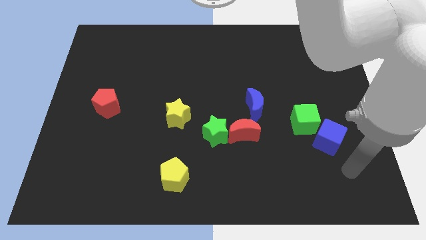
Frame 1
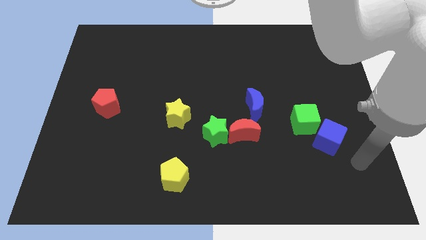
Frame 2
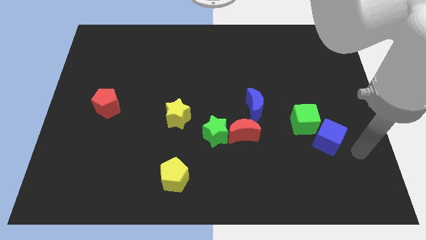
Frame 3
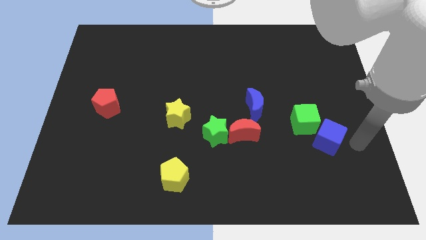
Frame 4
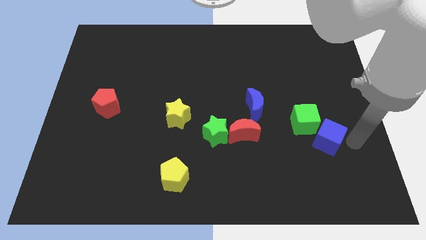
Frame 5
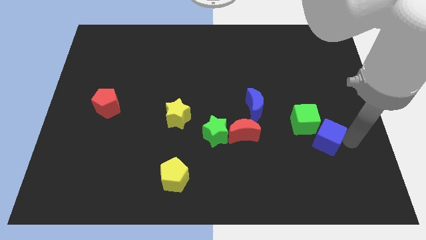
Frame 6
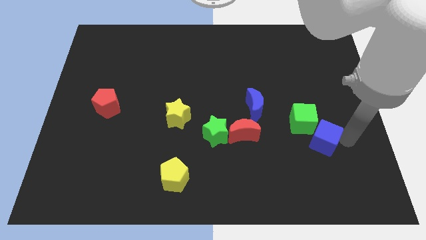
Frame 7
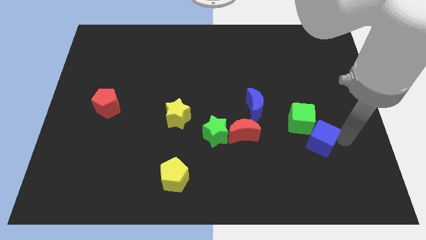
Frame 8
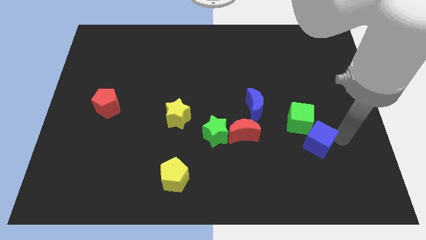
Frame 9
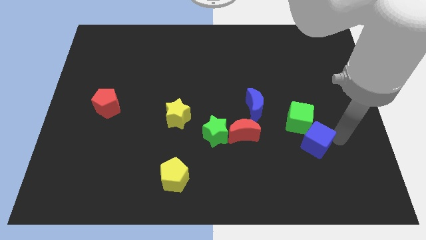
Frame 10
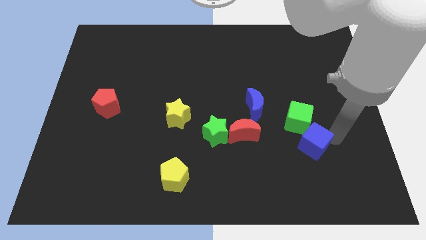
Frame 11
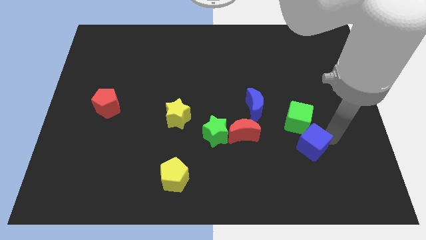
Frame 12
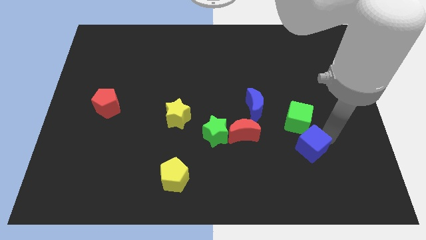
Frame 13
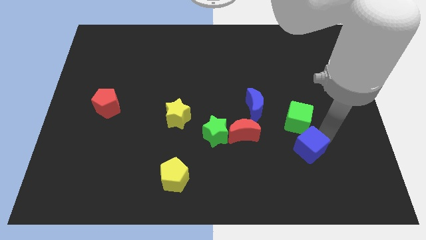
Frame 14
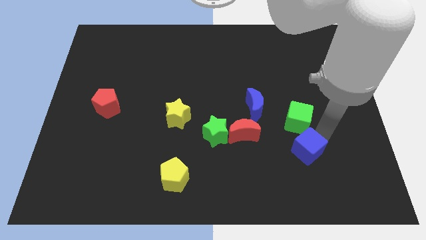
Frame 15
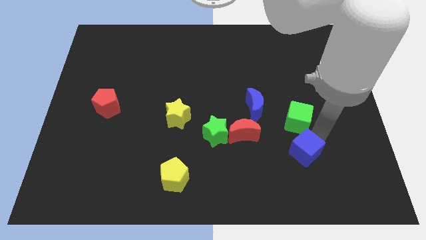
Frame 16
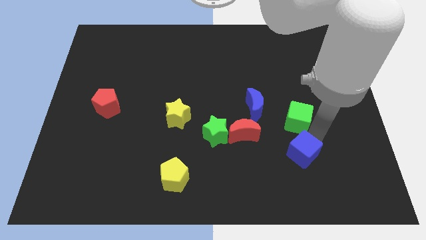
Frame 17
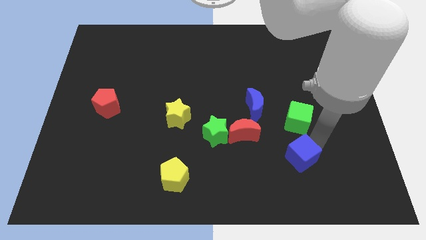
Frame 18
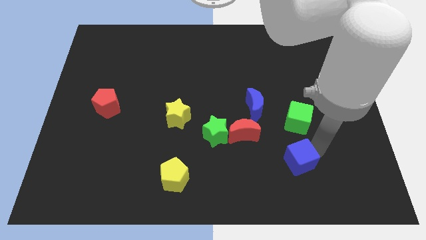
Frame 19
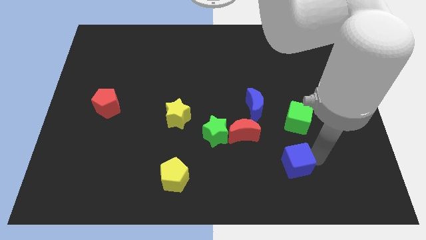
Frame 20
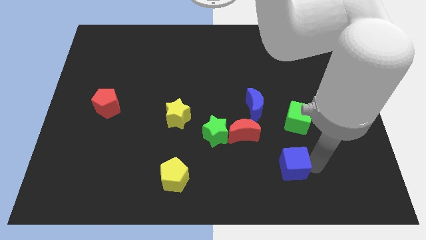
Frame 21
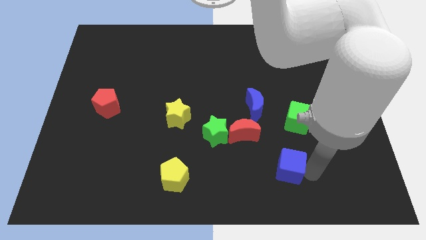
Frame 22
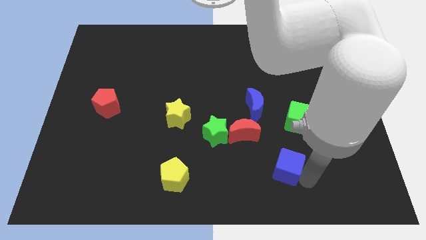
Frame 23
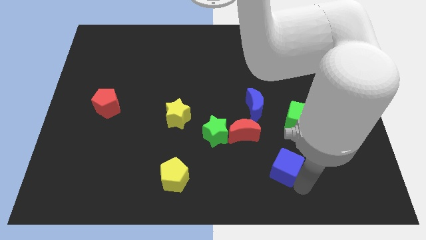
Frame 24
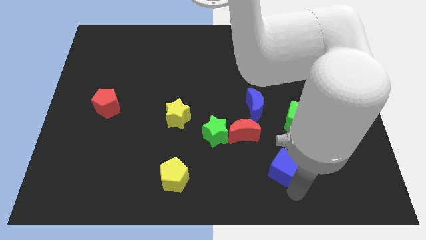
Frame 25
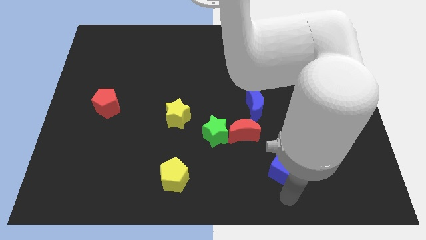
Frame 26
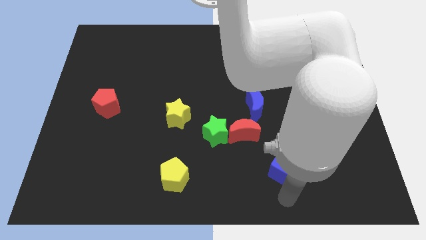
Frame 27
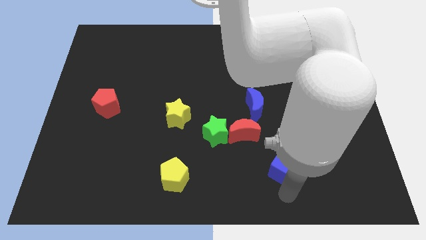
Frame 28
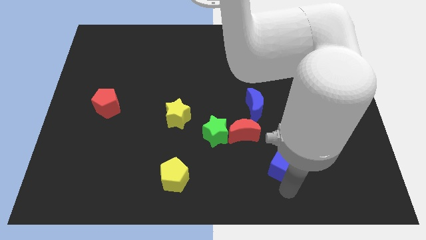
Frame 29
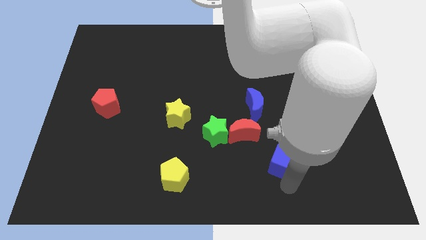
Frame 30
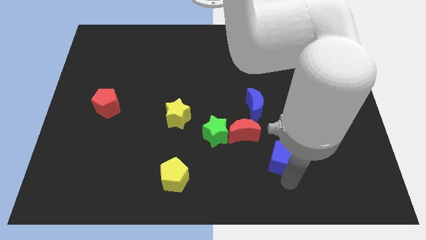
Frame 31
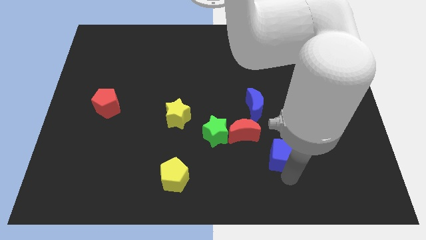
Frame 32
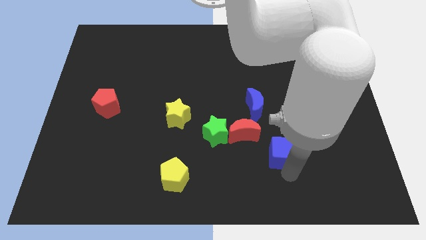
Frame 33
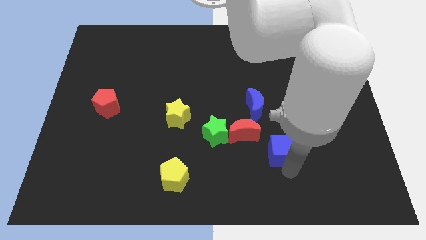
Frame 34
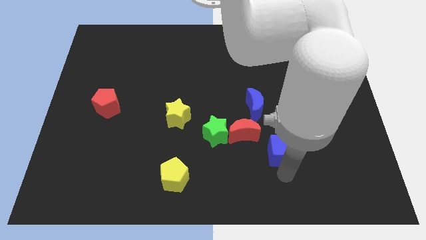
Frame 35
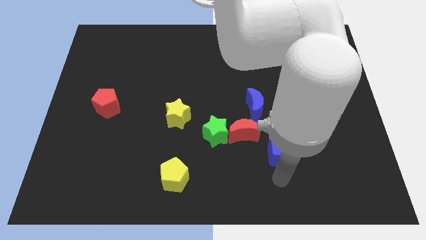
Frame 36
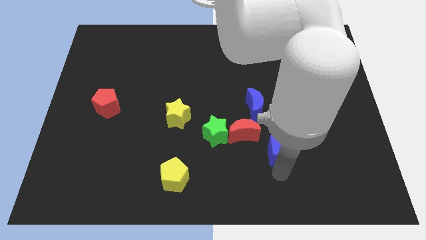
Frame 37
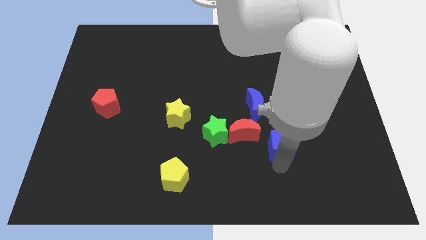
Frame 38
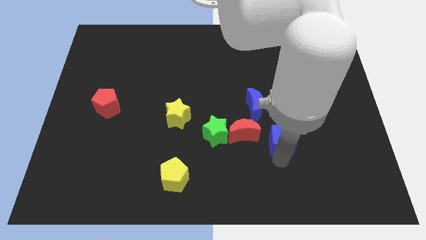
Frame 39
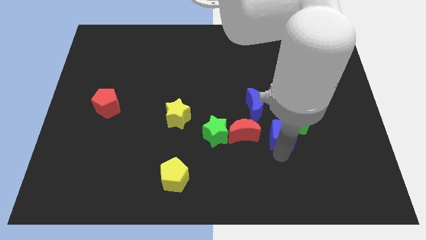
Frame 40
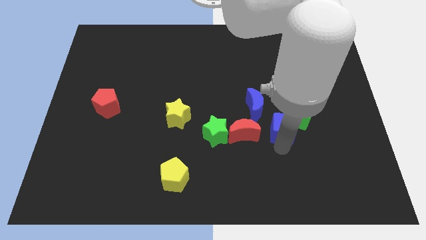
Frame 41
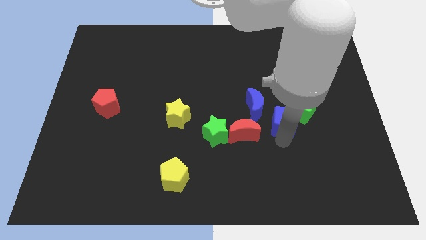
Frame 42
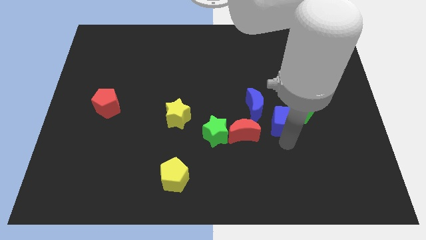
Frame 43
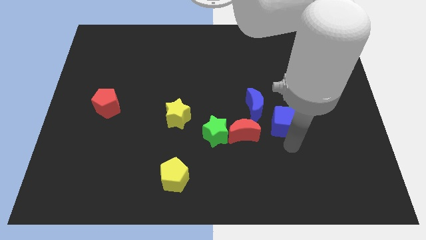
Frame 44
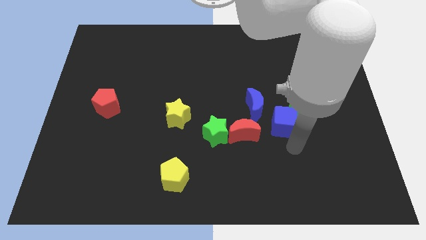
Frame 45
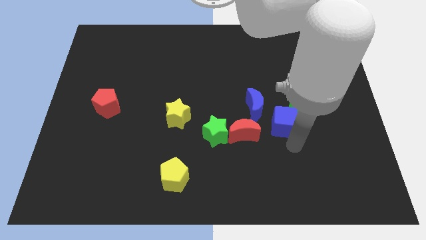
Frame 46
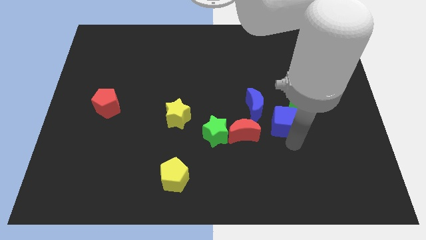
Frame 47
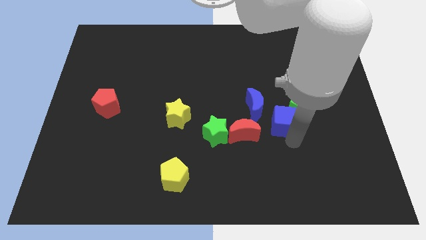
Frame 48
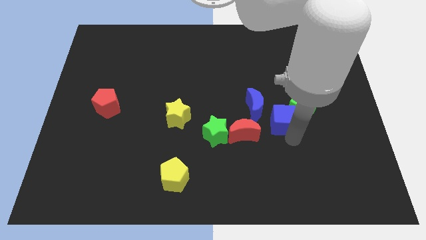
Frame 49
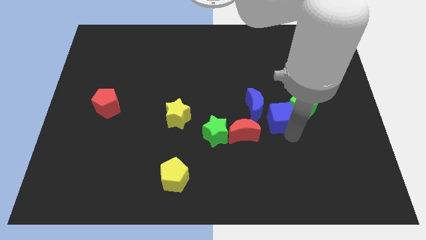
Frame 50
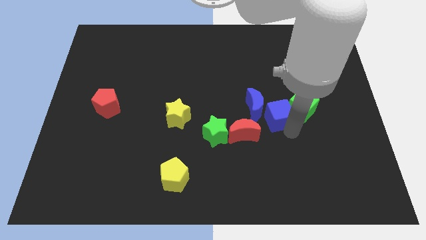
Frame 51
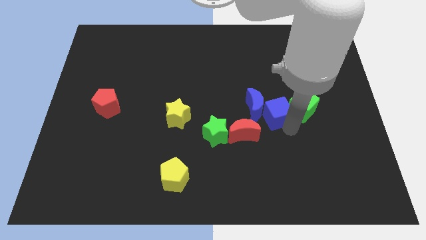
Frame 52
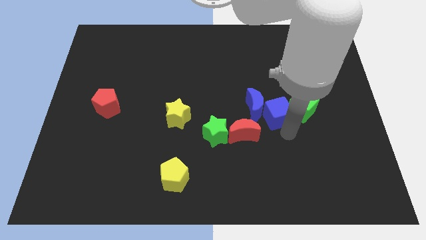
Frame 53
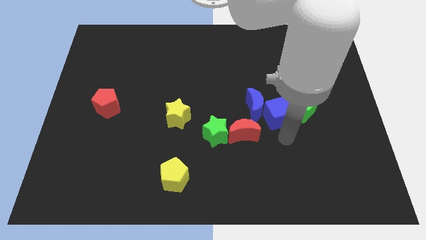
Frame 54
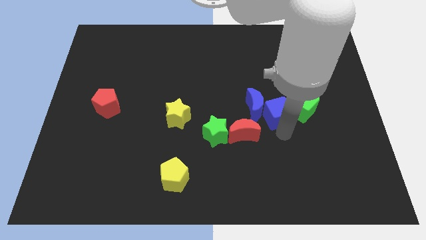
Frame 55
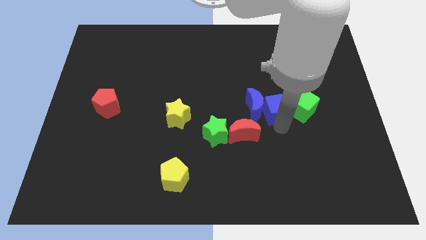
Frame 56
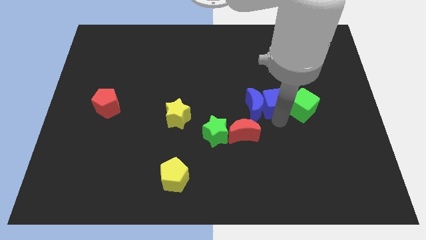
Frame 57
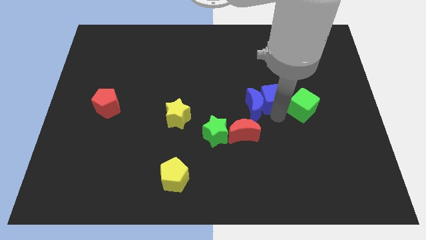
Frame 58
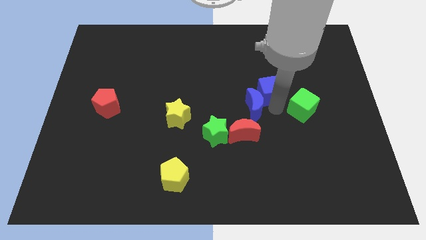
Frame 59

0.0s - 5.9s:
slide the blue cube to the top of the blue moon
